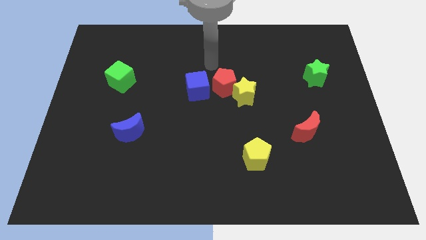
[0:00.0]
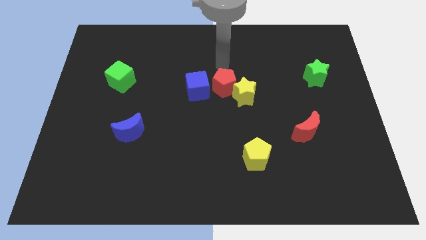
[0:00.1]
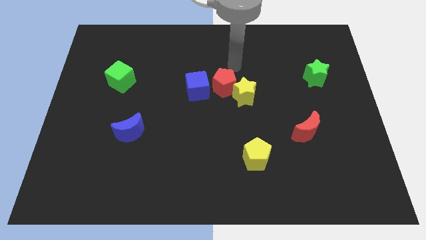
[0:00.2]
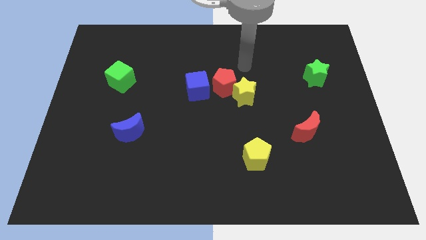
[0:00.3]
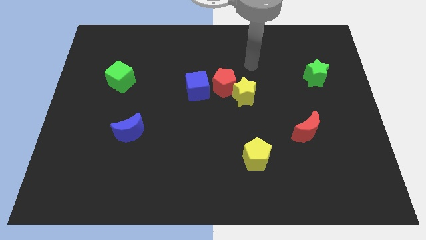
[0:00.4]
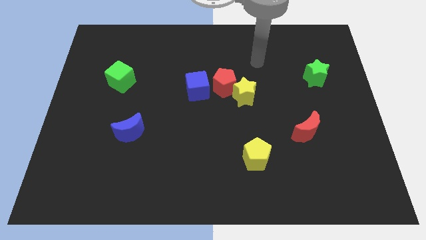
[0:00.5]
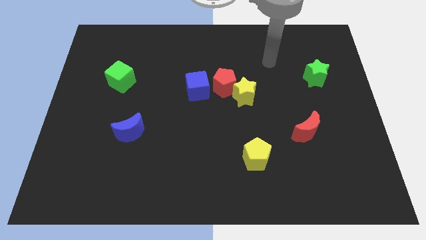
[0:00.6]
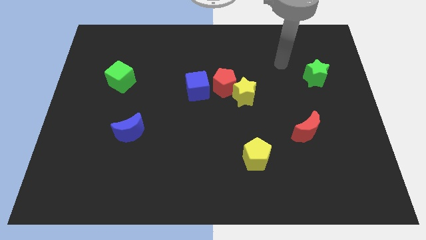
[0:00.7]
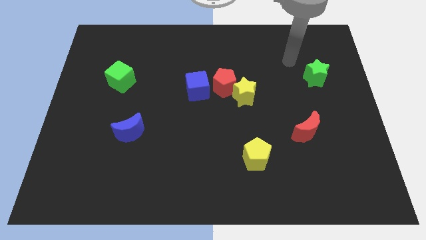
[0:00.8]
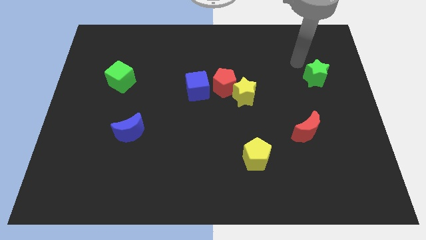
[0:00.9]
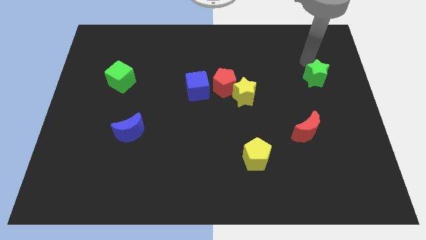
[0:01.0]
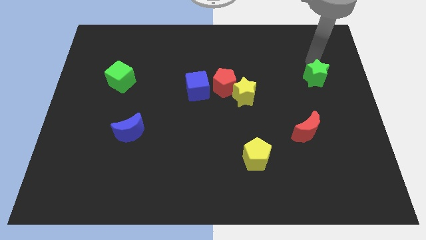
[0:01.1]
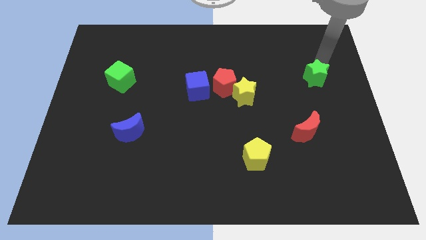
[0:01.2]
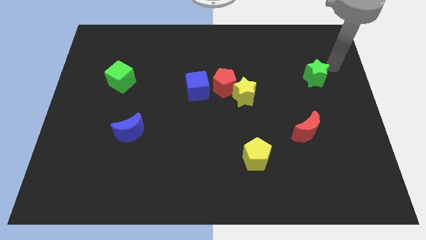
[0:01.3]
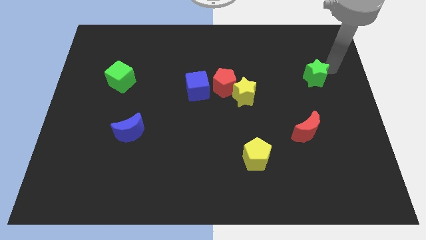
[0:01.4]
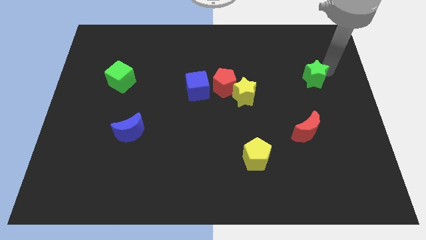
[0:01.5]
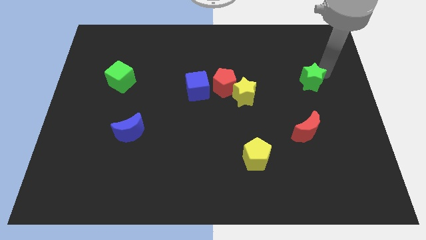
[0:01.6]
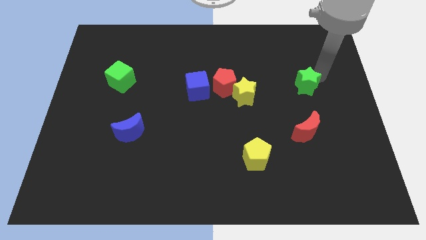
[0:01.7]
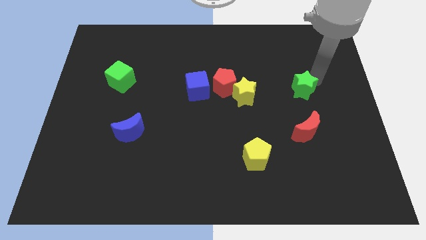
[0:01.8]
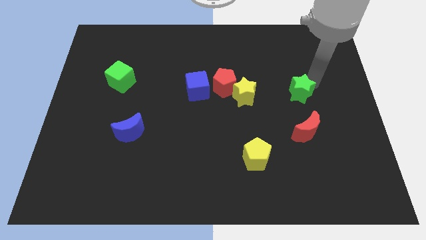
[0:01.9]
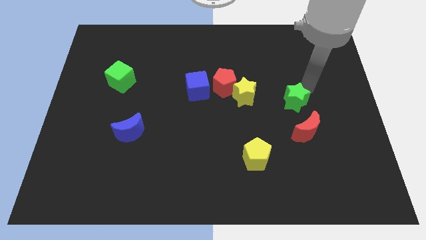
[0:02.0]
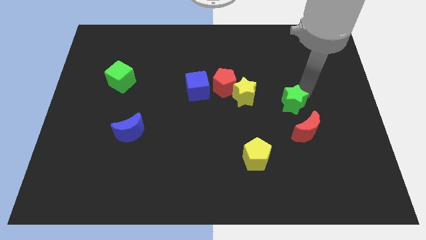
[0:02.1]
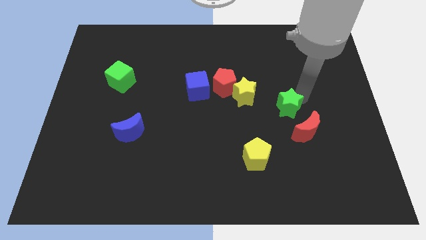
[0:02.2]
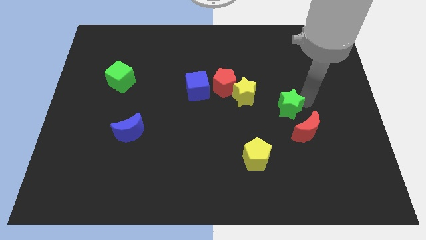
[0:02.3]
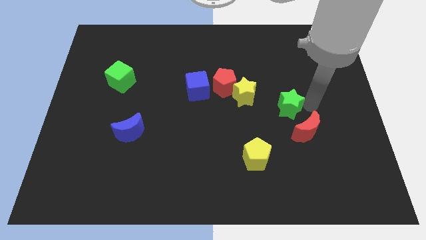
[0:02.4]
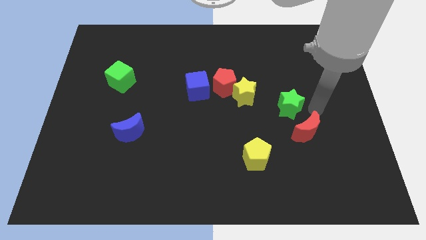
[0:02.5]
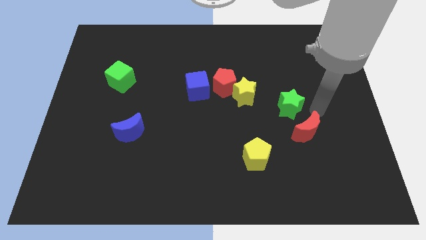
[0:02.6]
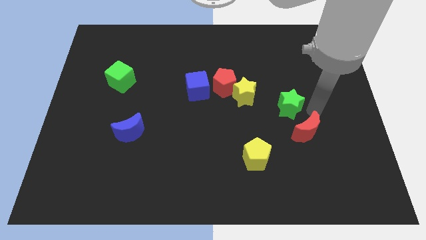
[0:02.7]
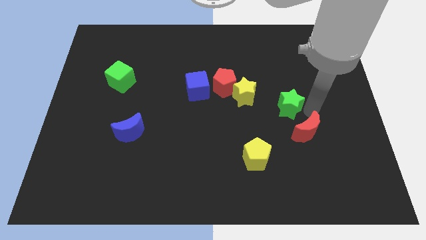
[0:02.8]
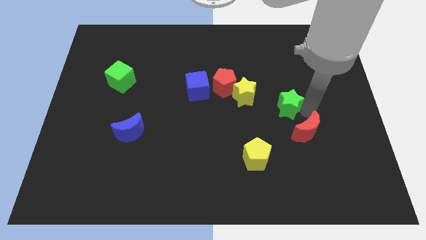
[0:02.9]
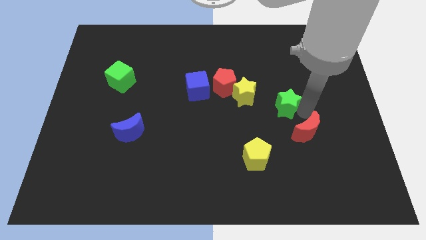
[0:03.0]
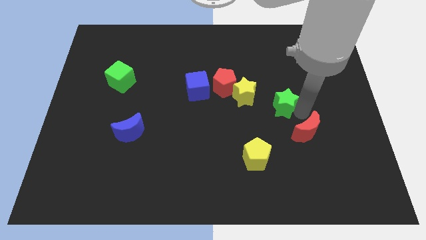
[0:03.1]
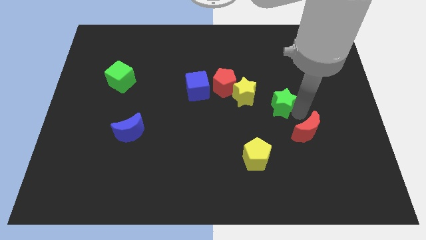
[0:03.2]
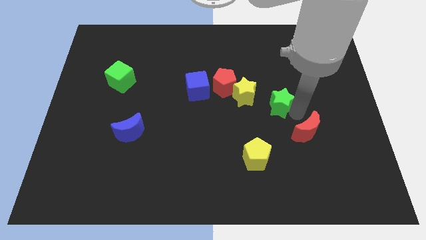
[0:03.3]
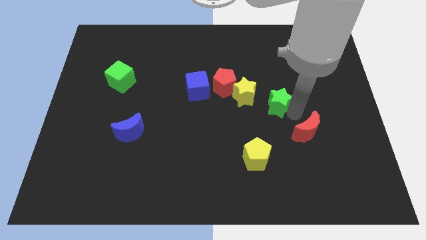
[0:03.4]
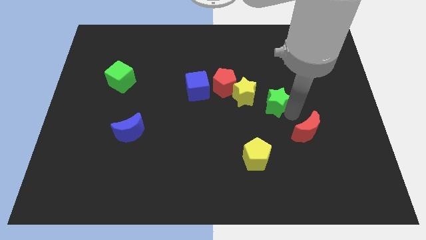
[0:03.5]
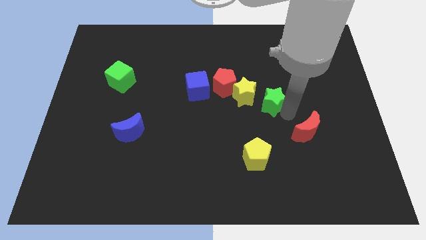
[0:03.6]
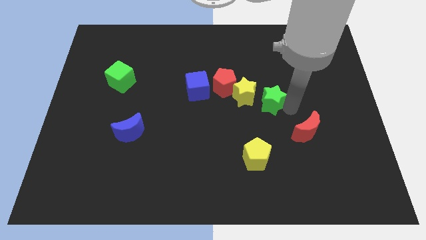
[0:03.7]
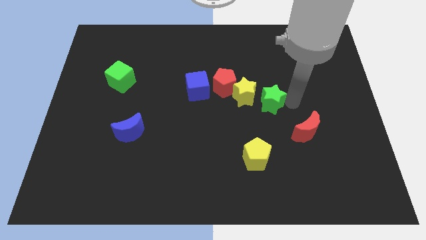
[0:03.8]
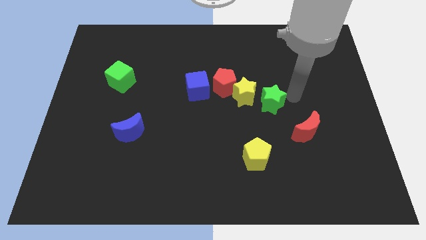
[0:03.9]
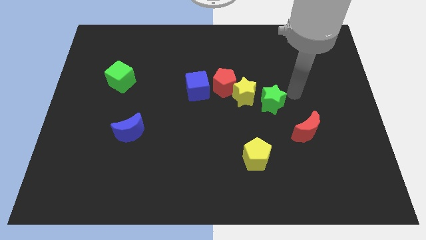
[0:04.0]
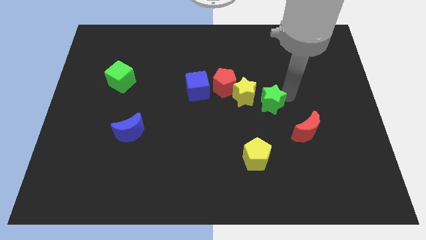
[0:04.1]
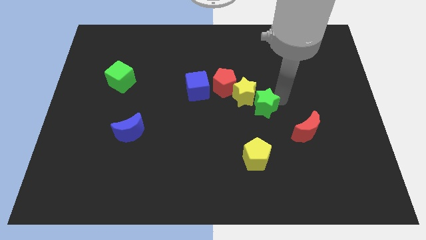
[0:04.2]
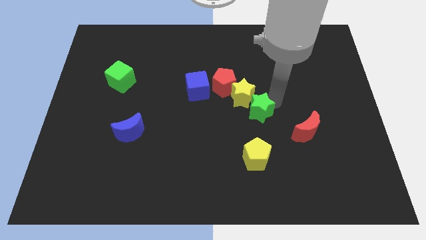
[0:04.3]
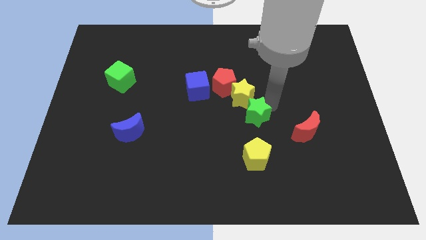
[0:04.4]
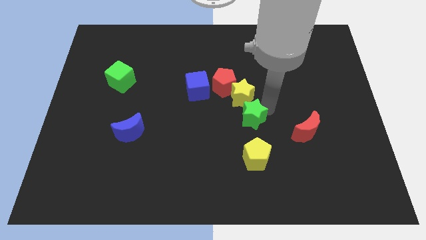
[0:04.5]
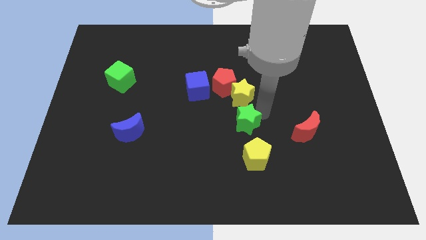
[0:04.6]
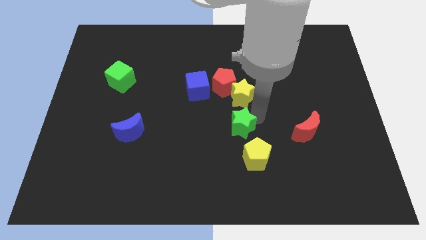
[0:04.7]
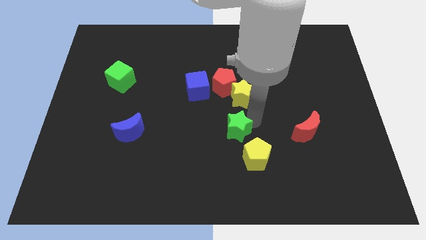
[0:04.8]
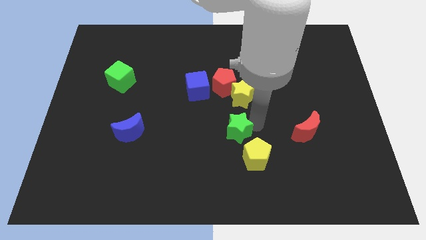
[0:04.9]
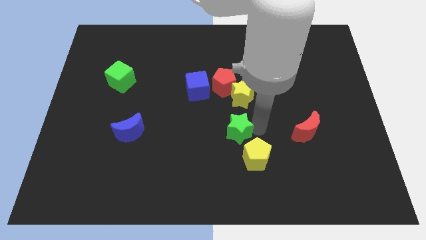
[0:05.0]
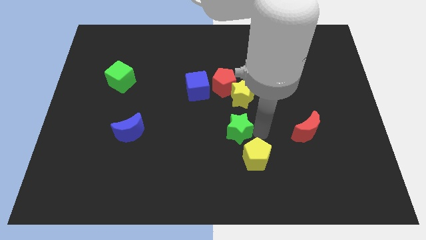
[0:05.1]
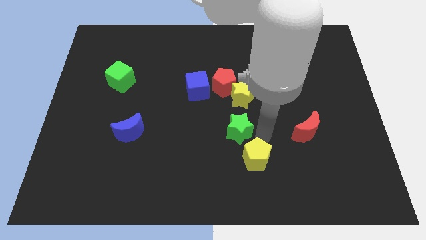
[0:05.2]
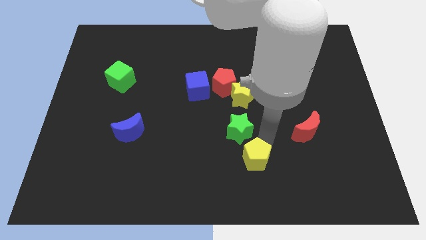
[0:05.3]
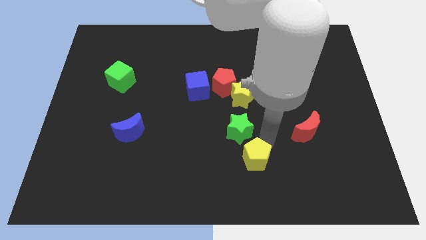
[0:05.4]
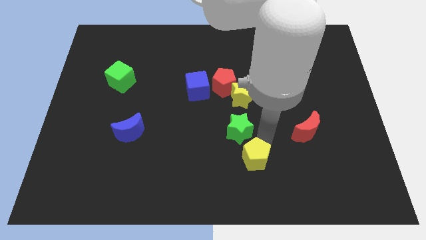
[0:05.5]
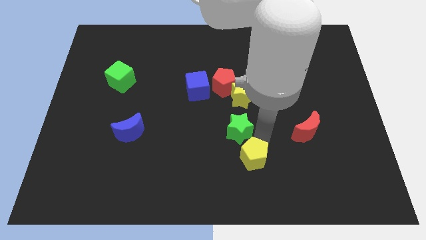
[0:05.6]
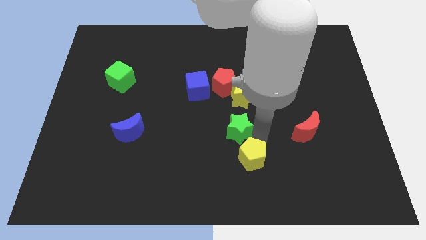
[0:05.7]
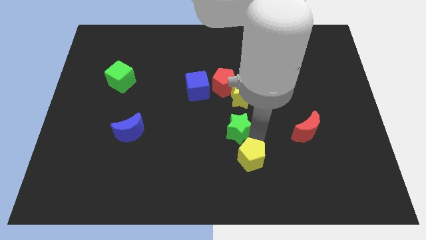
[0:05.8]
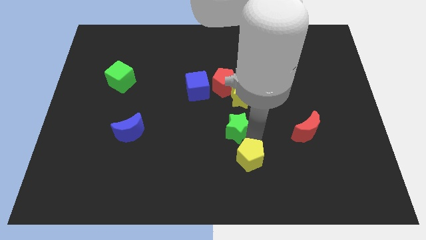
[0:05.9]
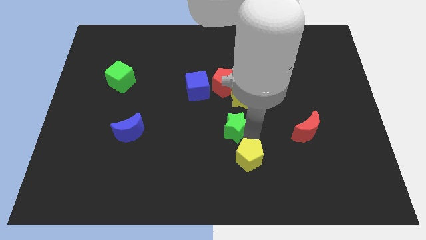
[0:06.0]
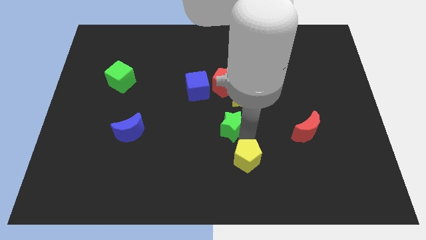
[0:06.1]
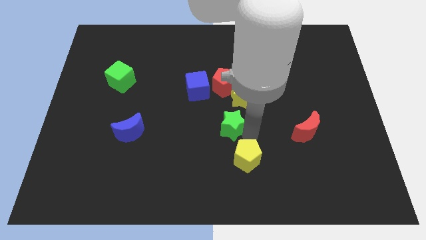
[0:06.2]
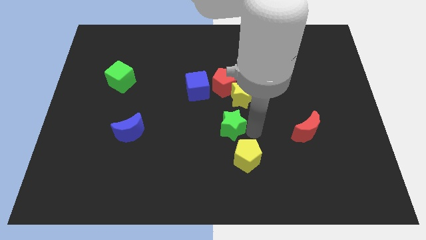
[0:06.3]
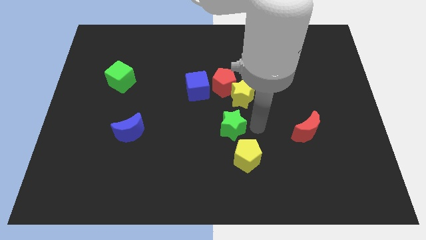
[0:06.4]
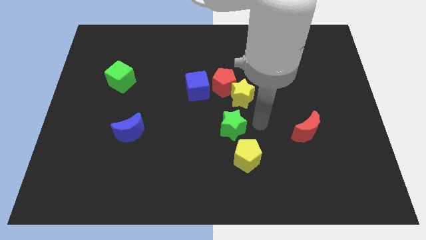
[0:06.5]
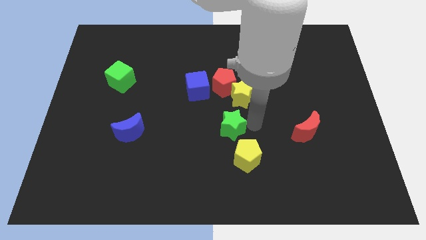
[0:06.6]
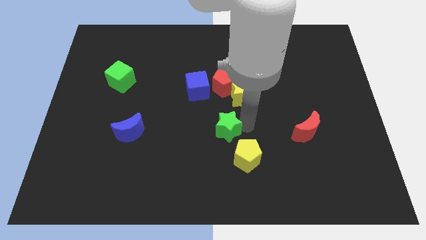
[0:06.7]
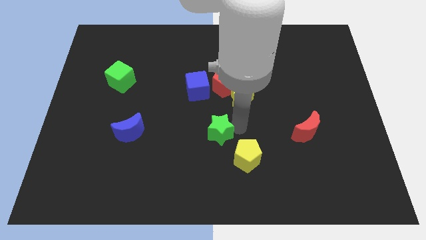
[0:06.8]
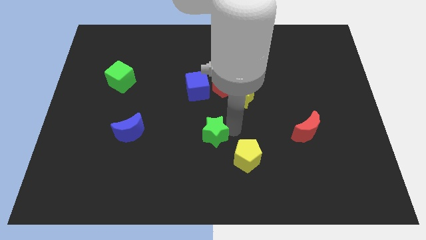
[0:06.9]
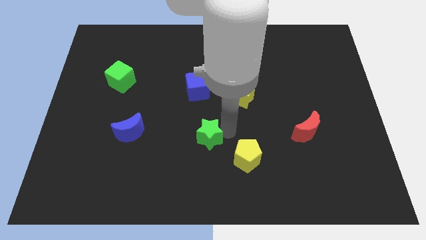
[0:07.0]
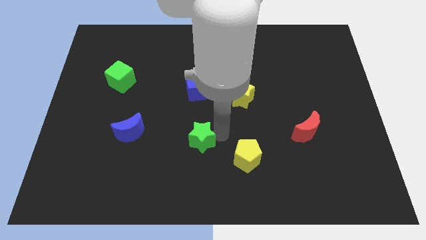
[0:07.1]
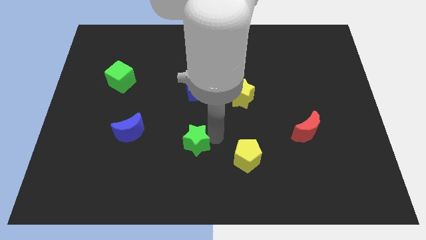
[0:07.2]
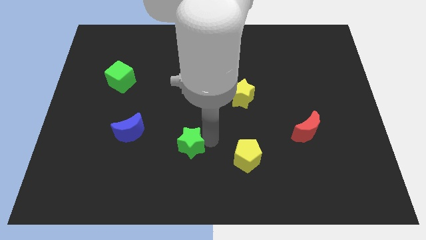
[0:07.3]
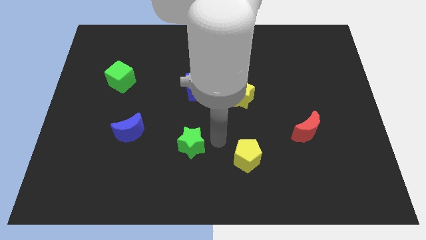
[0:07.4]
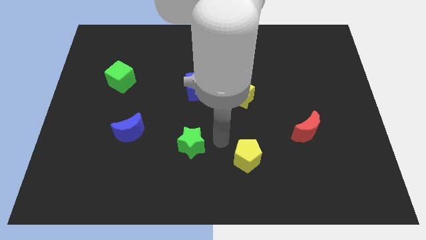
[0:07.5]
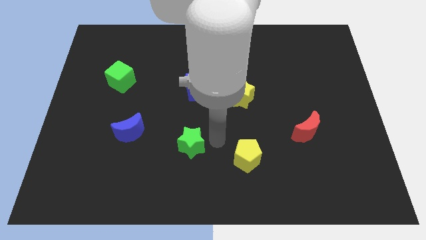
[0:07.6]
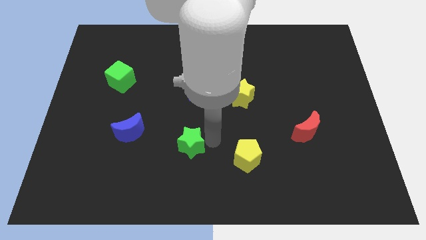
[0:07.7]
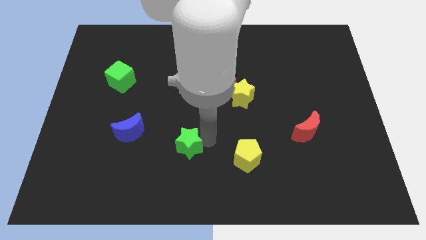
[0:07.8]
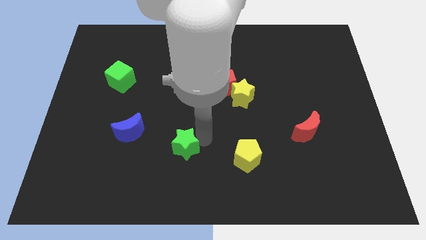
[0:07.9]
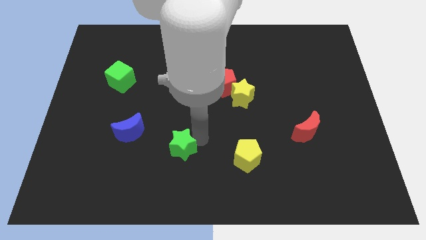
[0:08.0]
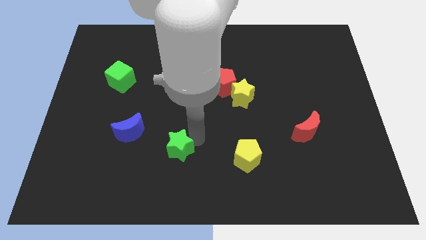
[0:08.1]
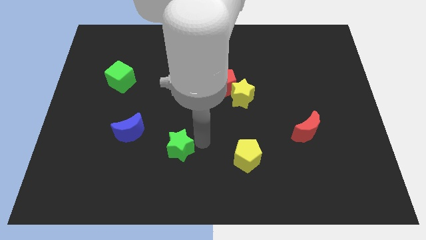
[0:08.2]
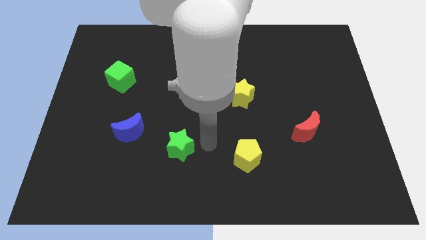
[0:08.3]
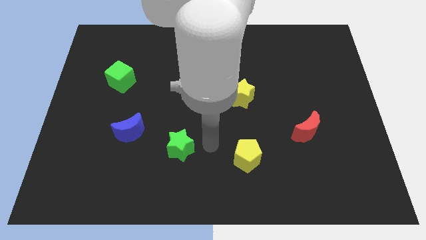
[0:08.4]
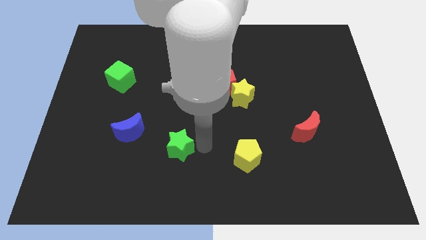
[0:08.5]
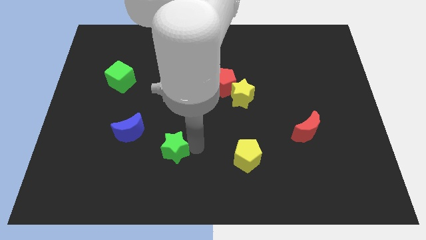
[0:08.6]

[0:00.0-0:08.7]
put the green star to the bottom right side of the blue moon
